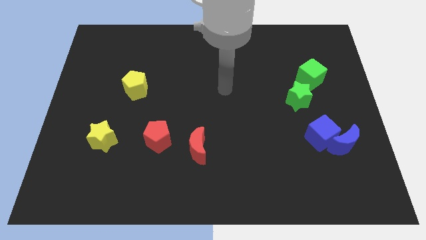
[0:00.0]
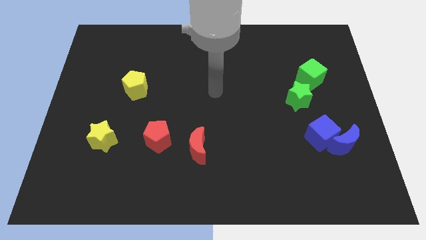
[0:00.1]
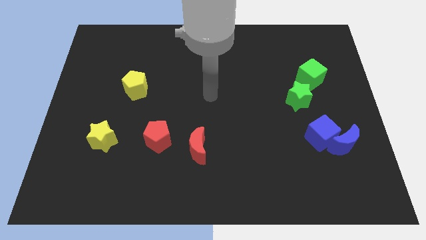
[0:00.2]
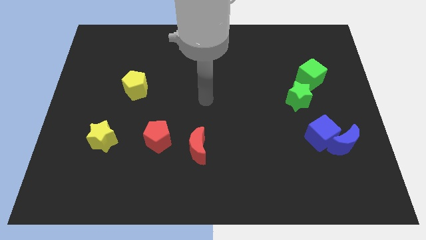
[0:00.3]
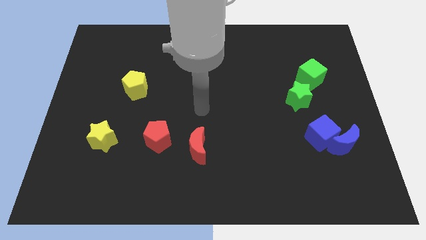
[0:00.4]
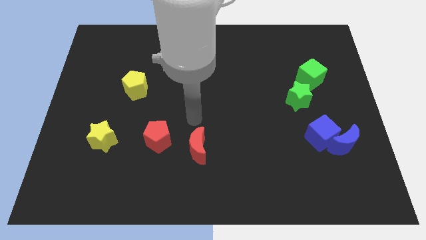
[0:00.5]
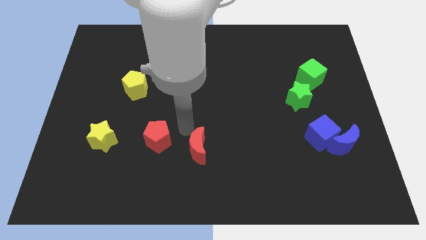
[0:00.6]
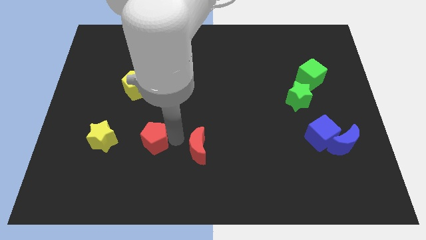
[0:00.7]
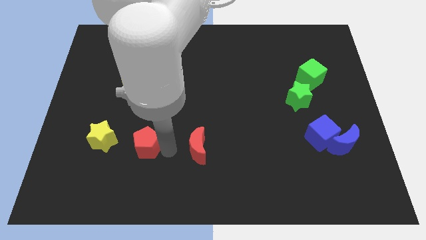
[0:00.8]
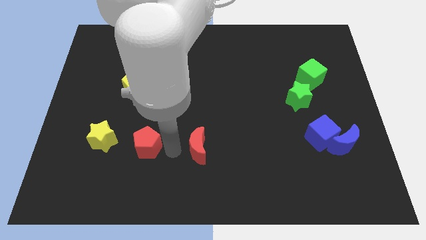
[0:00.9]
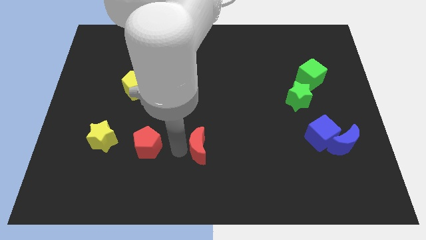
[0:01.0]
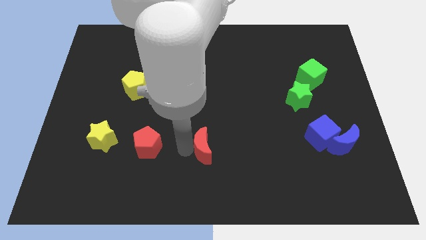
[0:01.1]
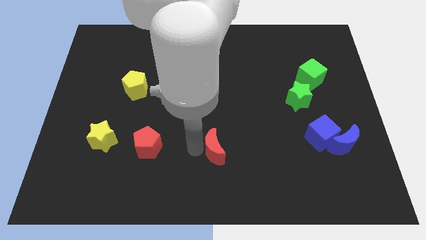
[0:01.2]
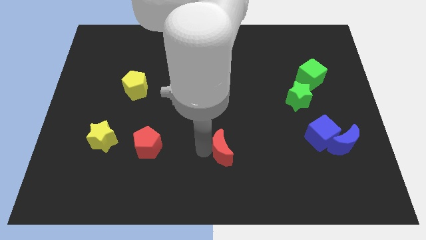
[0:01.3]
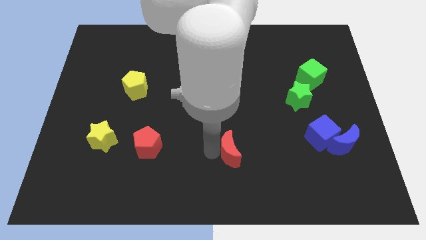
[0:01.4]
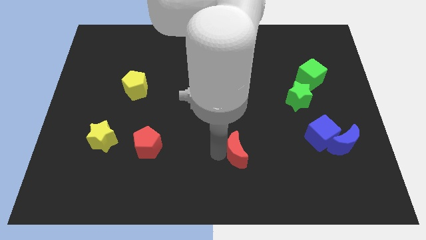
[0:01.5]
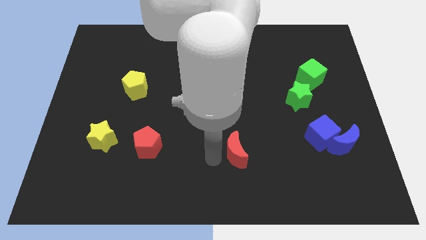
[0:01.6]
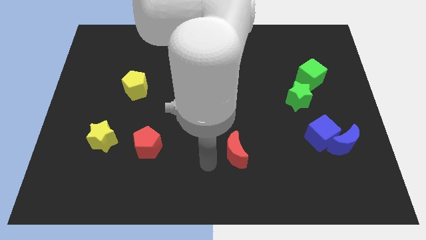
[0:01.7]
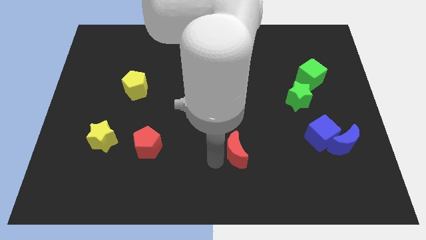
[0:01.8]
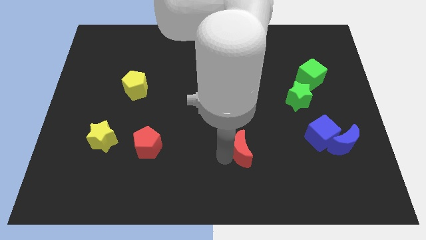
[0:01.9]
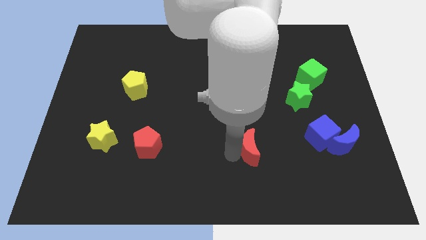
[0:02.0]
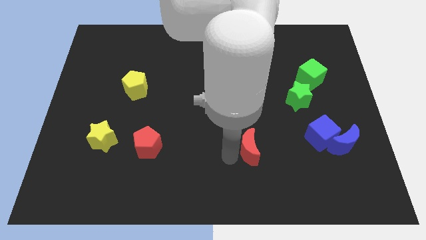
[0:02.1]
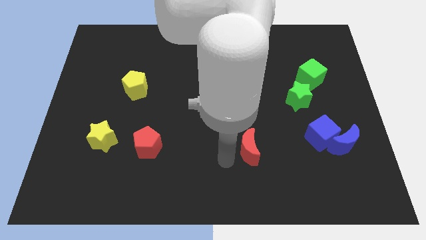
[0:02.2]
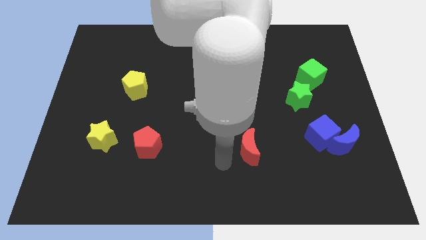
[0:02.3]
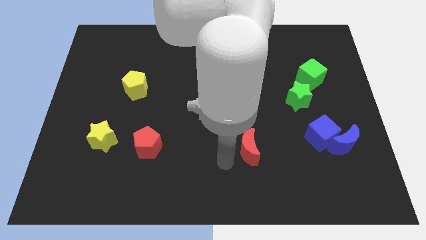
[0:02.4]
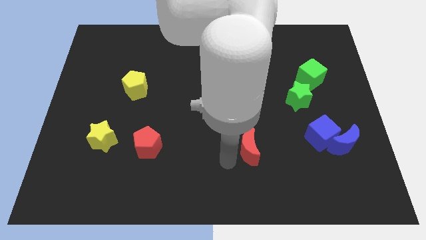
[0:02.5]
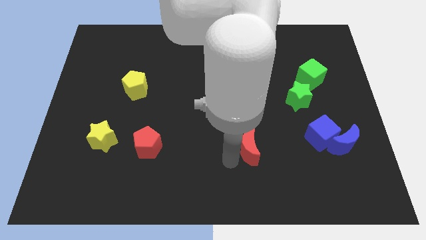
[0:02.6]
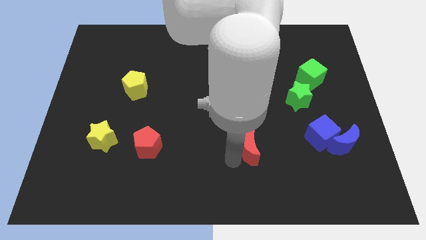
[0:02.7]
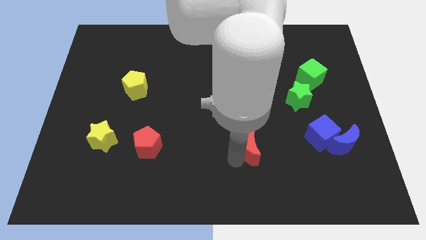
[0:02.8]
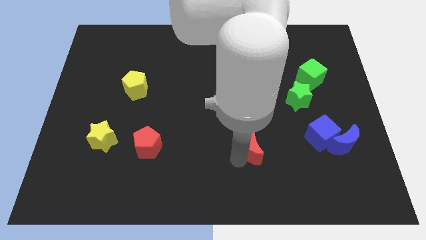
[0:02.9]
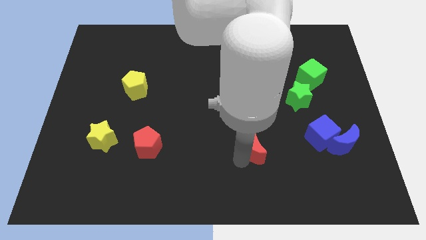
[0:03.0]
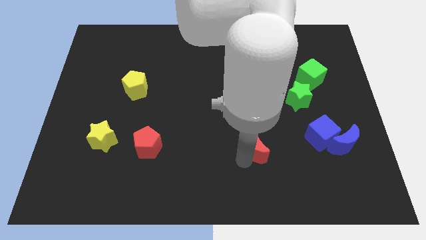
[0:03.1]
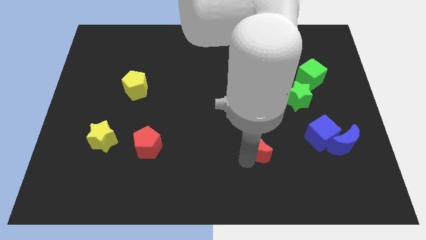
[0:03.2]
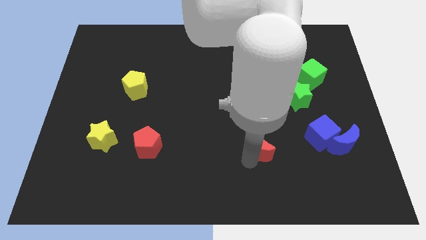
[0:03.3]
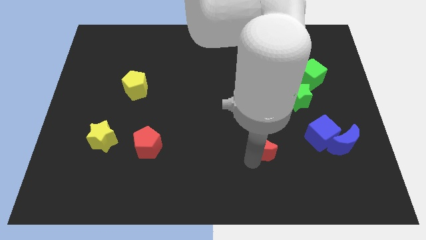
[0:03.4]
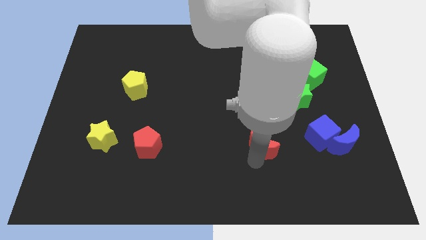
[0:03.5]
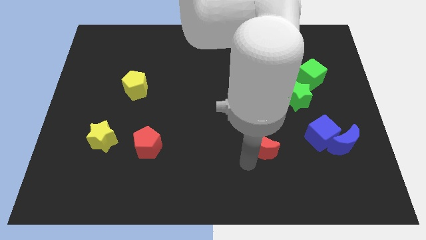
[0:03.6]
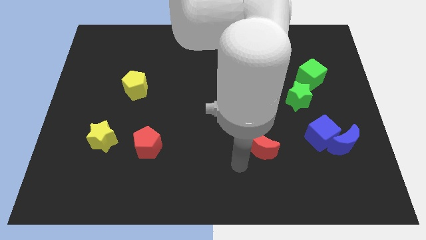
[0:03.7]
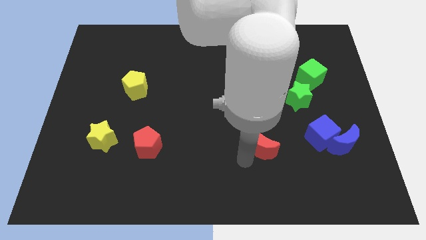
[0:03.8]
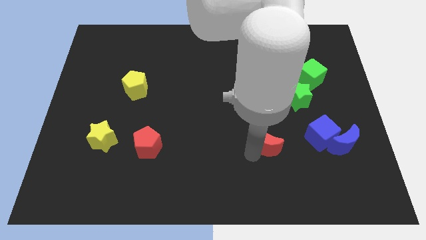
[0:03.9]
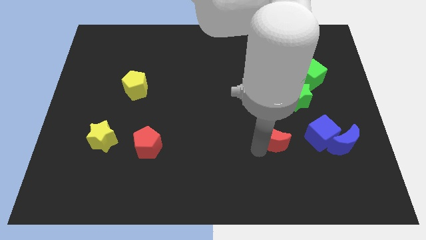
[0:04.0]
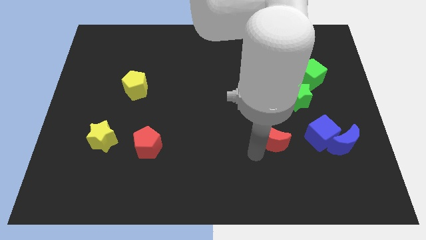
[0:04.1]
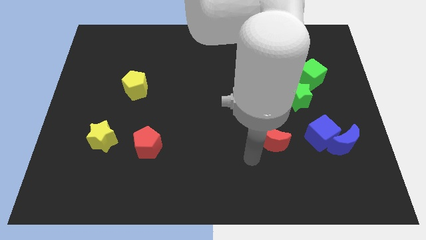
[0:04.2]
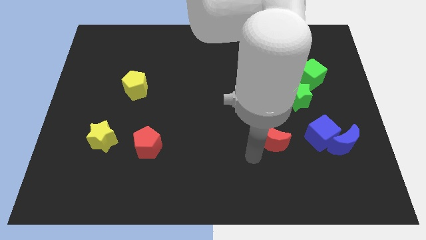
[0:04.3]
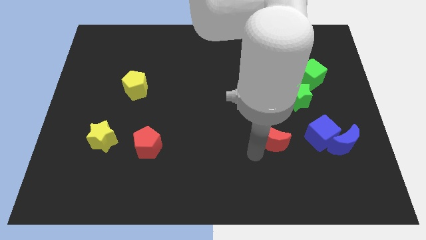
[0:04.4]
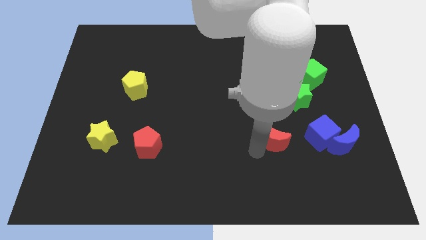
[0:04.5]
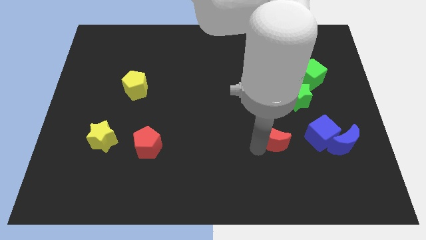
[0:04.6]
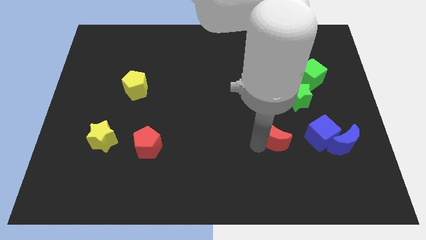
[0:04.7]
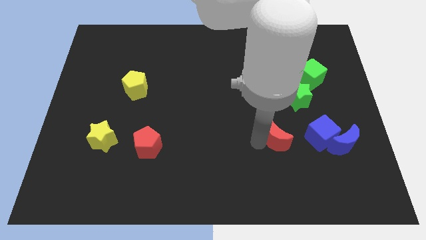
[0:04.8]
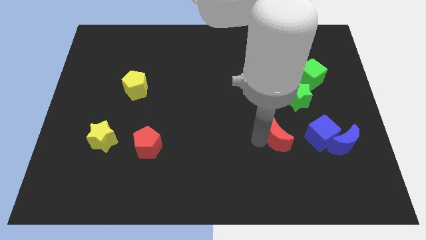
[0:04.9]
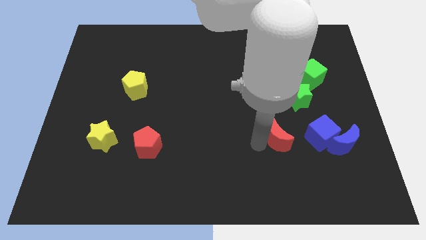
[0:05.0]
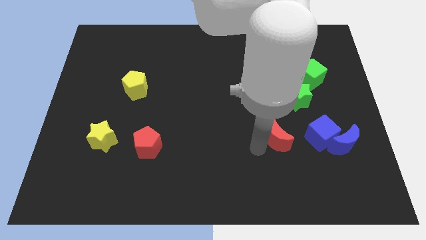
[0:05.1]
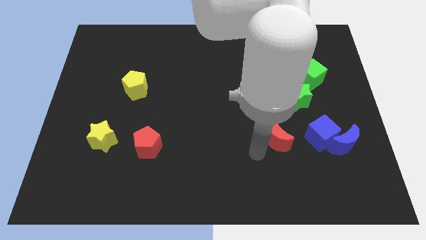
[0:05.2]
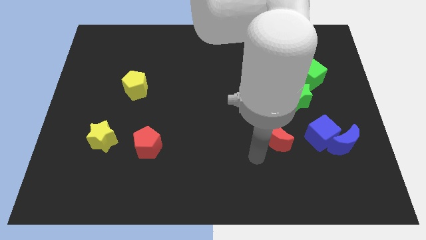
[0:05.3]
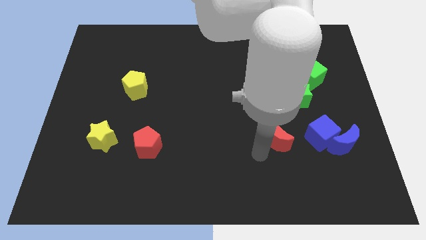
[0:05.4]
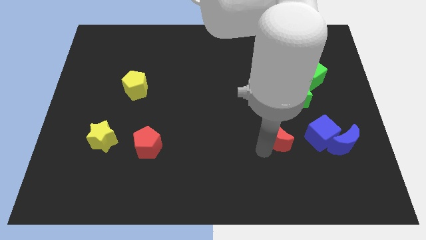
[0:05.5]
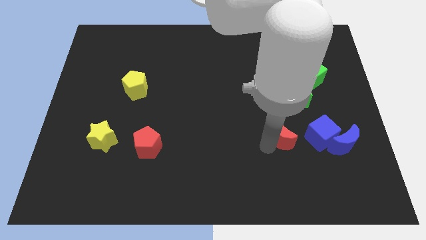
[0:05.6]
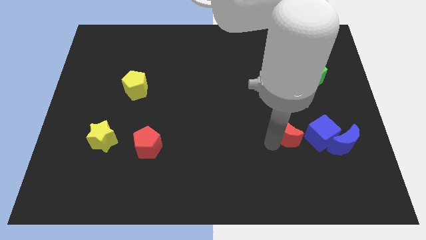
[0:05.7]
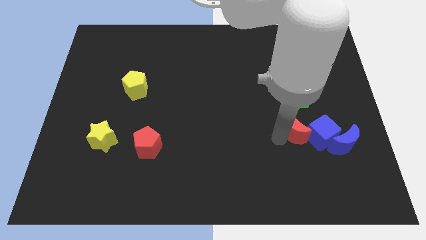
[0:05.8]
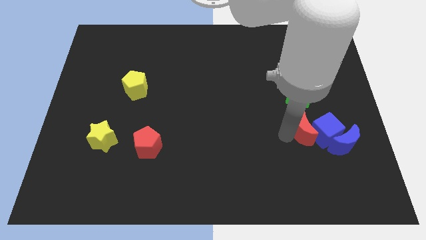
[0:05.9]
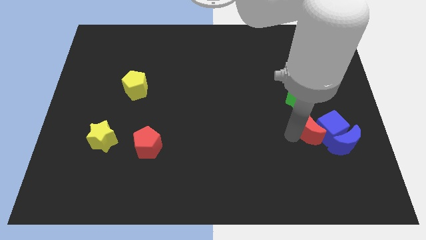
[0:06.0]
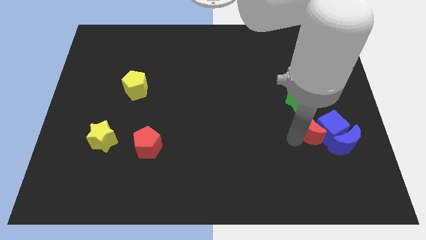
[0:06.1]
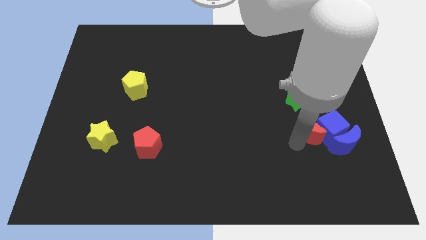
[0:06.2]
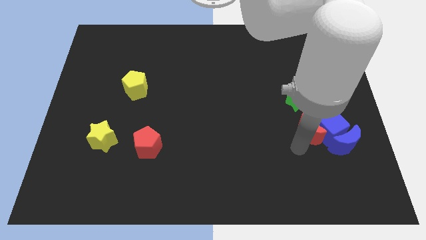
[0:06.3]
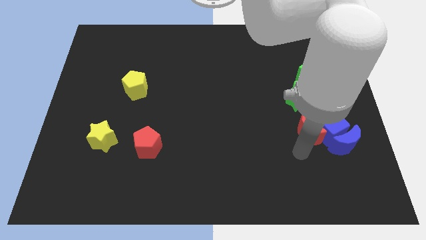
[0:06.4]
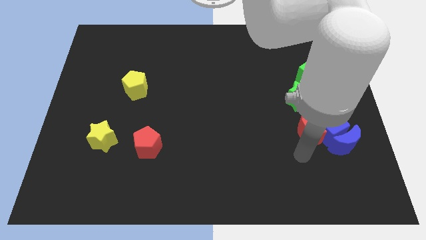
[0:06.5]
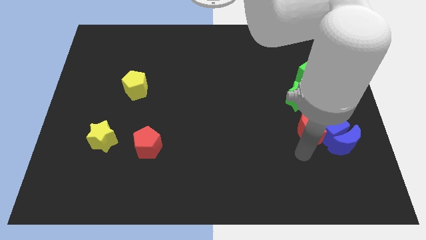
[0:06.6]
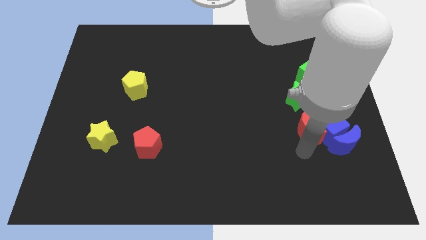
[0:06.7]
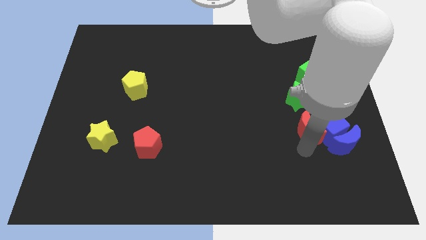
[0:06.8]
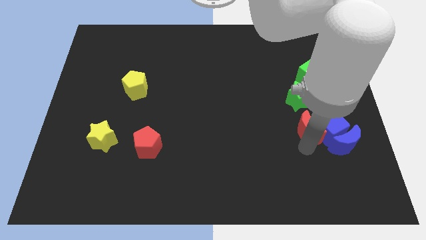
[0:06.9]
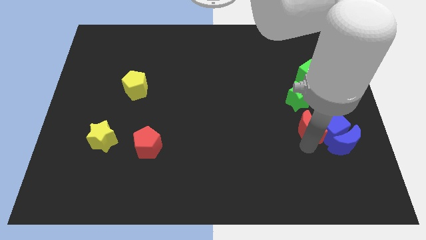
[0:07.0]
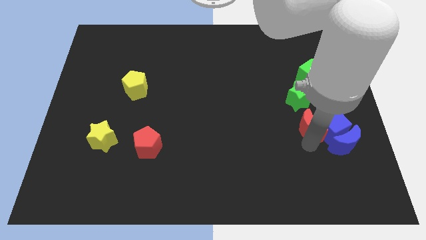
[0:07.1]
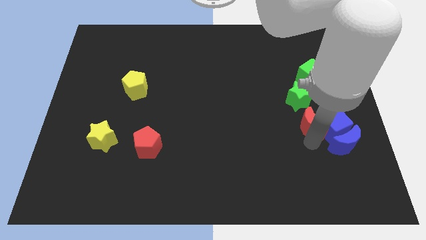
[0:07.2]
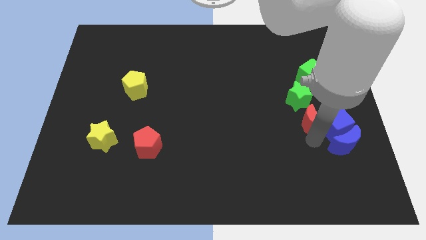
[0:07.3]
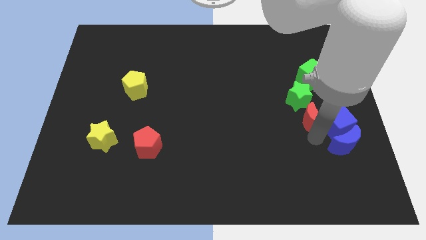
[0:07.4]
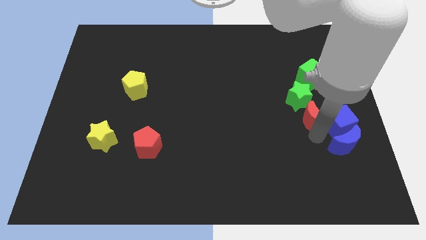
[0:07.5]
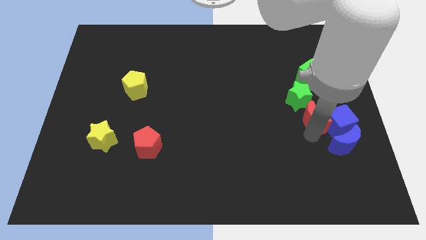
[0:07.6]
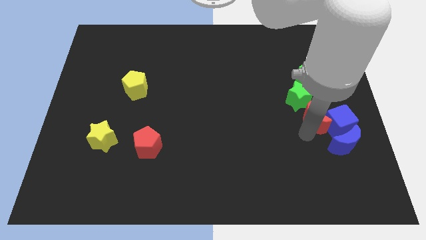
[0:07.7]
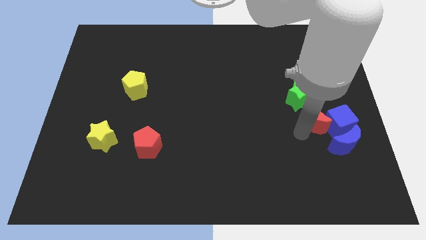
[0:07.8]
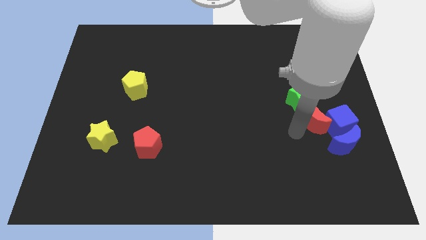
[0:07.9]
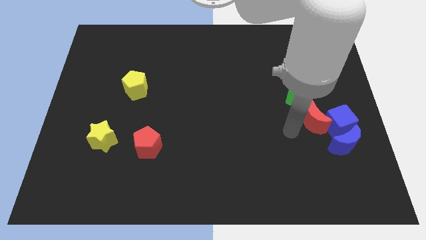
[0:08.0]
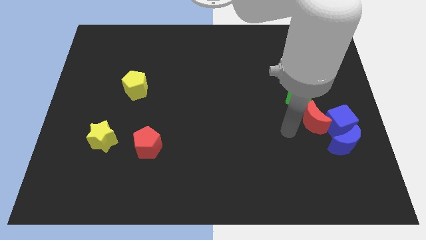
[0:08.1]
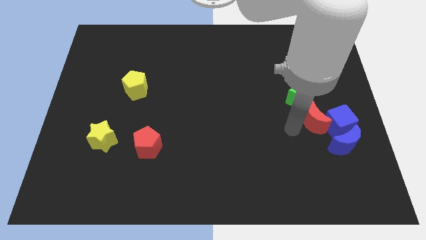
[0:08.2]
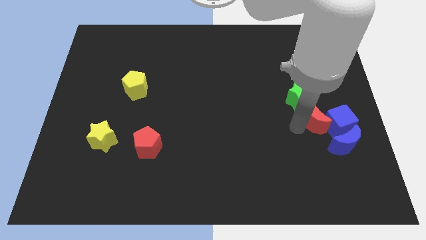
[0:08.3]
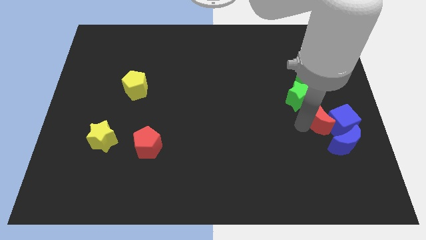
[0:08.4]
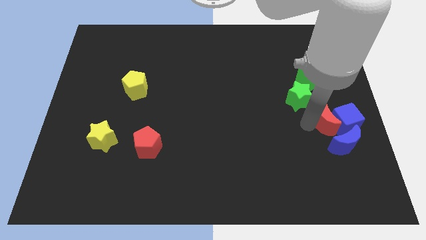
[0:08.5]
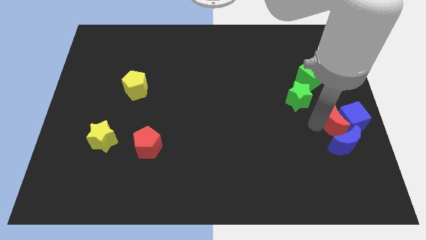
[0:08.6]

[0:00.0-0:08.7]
slide the red moon to the right side of the board
